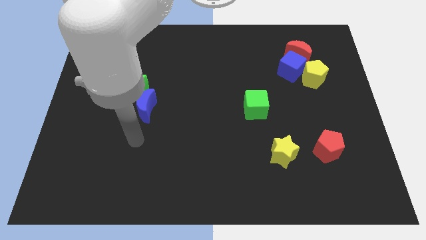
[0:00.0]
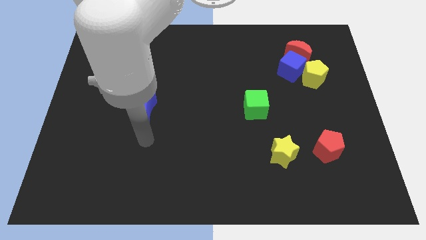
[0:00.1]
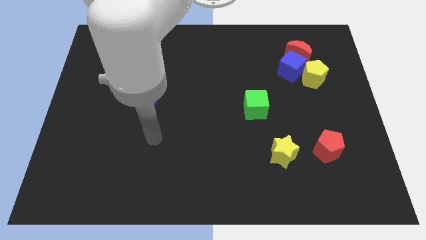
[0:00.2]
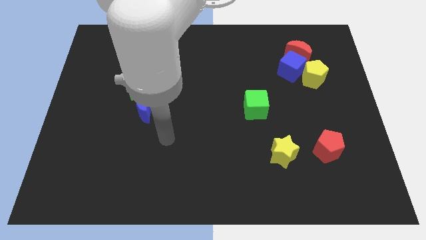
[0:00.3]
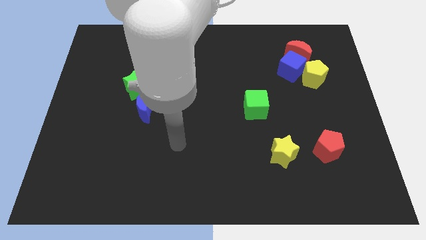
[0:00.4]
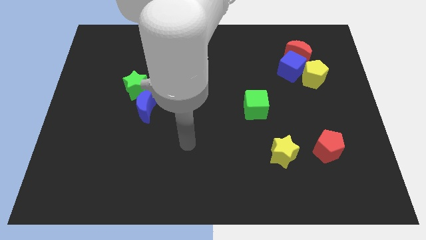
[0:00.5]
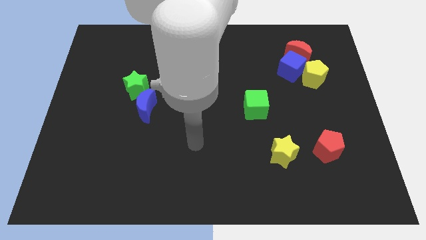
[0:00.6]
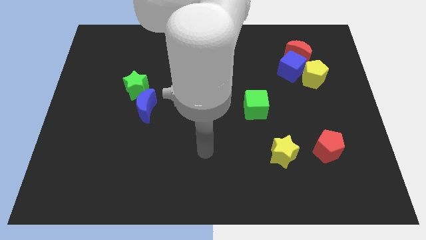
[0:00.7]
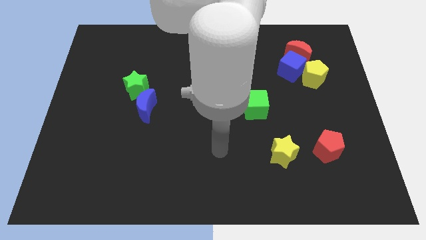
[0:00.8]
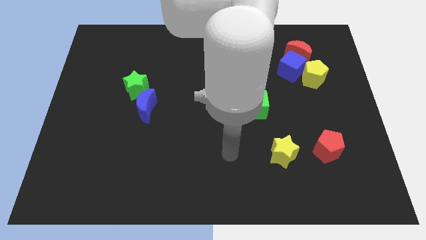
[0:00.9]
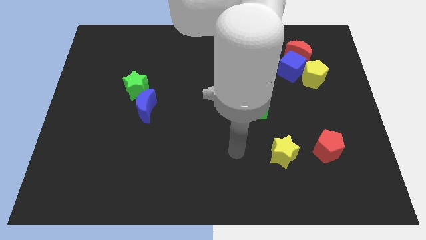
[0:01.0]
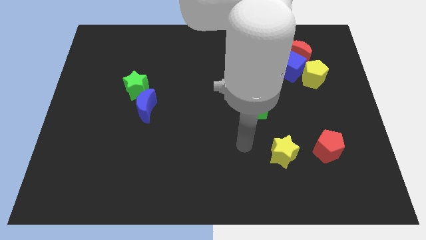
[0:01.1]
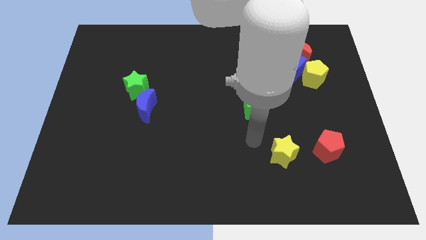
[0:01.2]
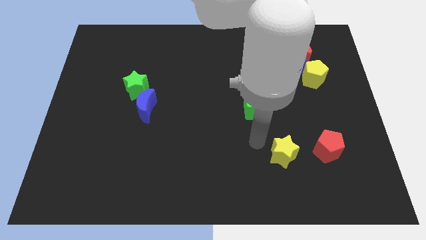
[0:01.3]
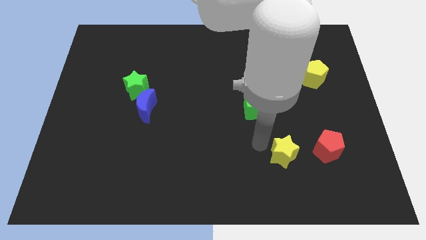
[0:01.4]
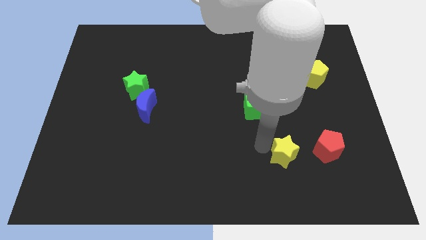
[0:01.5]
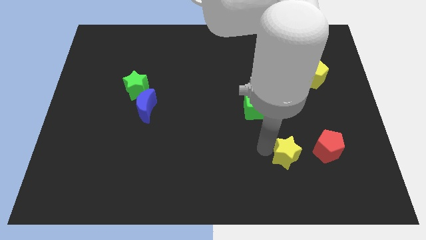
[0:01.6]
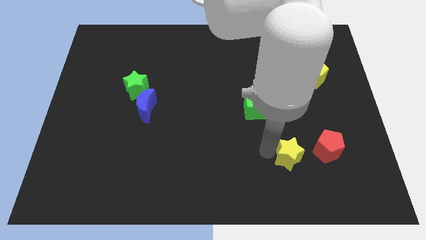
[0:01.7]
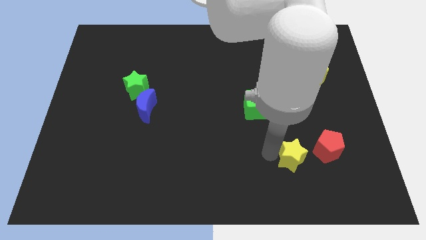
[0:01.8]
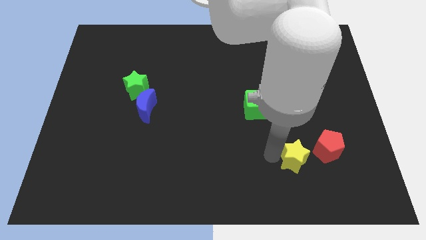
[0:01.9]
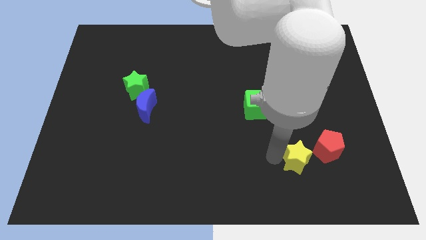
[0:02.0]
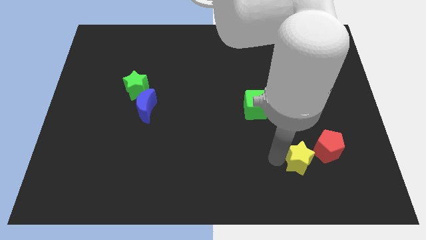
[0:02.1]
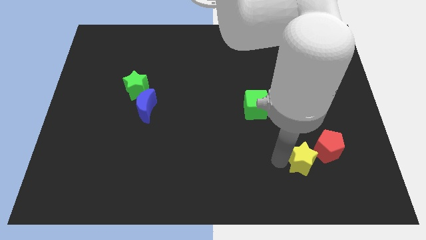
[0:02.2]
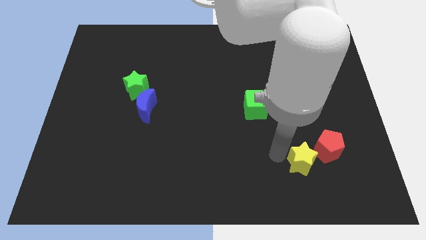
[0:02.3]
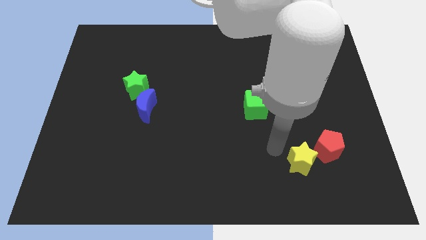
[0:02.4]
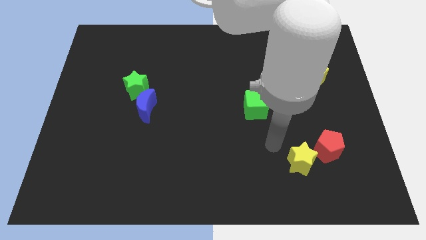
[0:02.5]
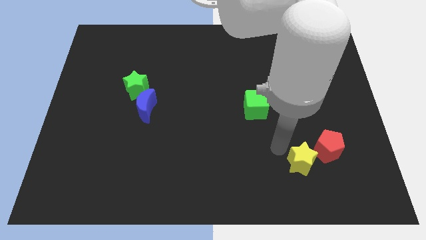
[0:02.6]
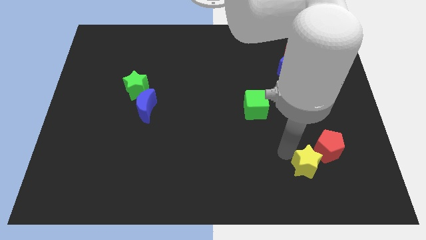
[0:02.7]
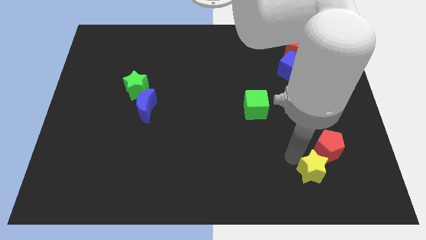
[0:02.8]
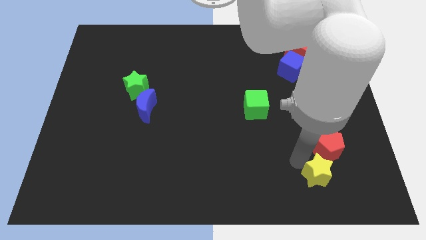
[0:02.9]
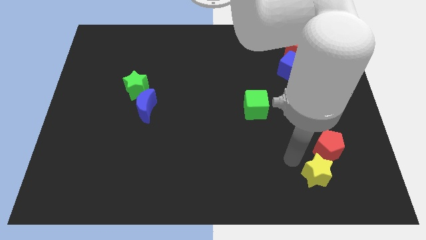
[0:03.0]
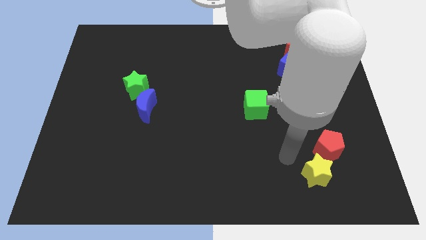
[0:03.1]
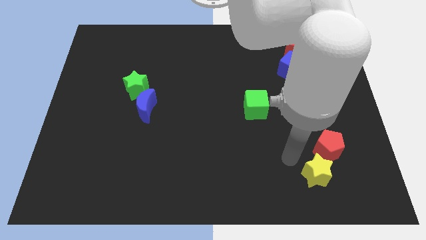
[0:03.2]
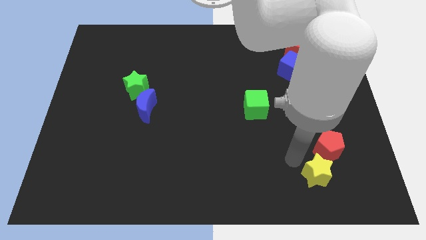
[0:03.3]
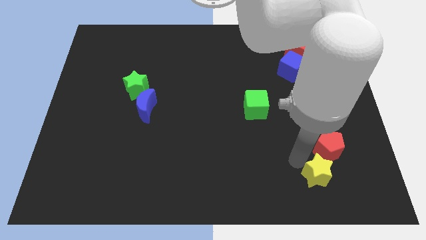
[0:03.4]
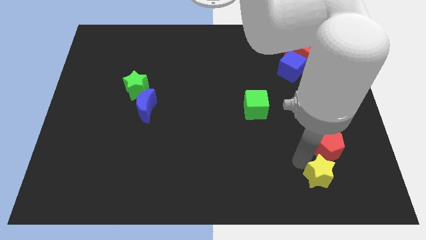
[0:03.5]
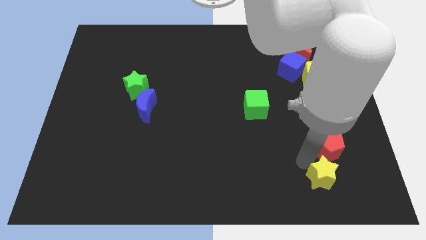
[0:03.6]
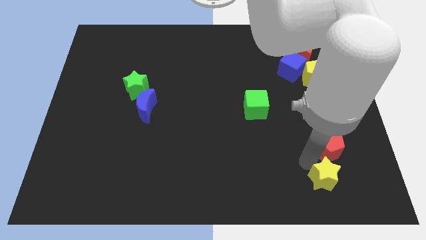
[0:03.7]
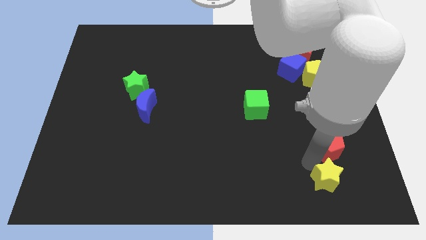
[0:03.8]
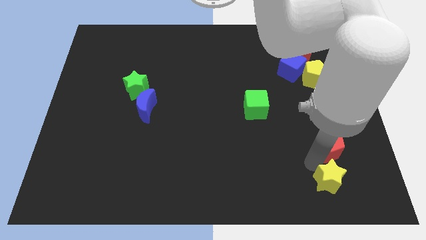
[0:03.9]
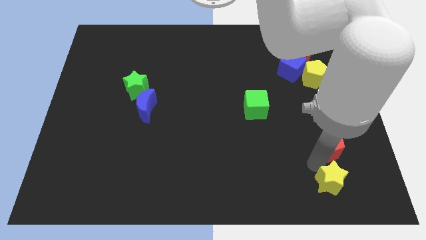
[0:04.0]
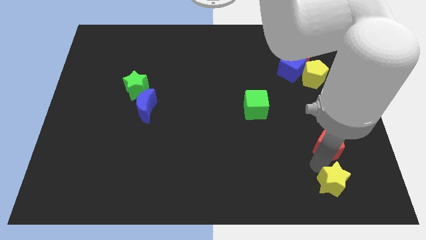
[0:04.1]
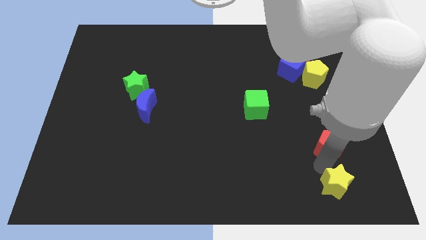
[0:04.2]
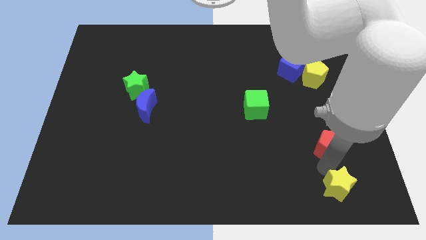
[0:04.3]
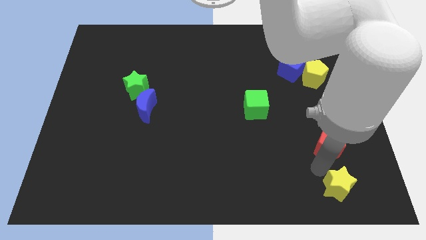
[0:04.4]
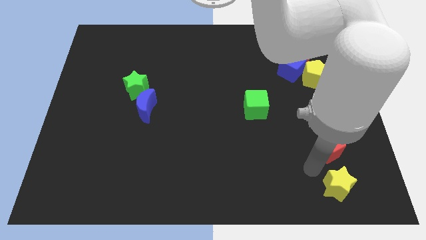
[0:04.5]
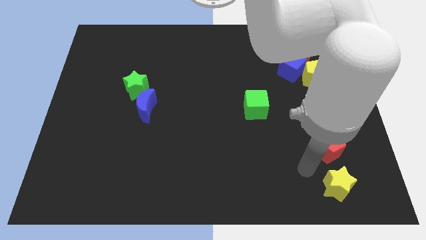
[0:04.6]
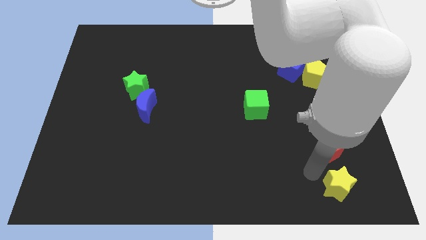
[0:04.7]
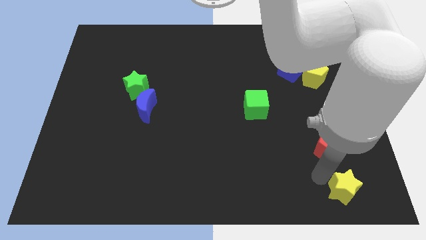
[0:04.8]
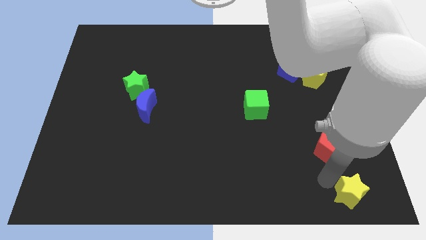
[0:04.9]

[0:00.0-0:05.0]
push the yellow star to the bottom right corner

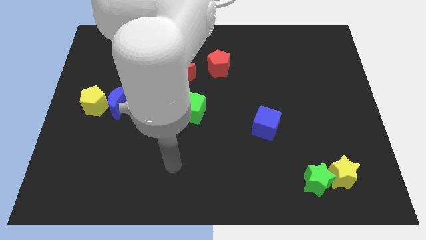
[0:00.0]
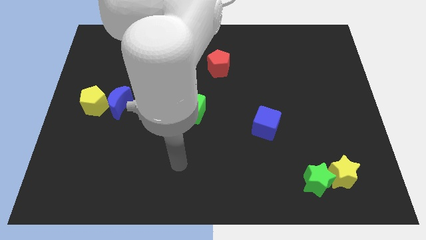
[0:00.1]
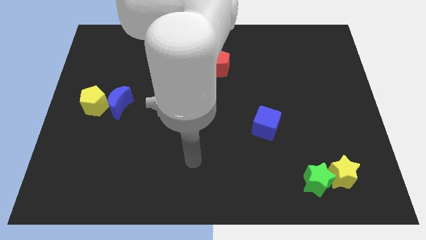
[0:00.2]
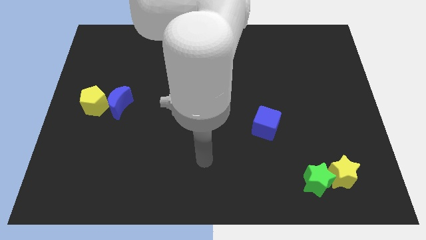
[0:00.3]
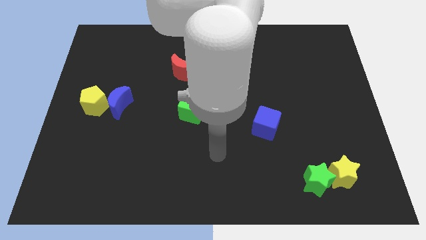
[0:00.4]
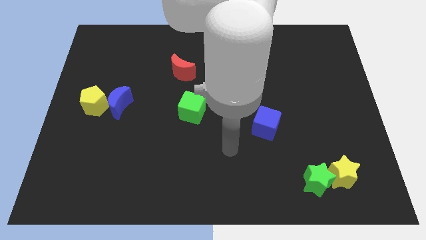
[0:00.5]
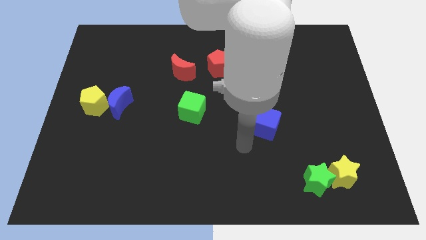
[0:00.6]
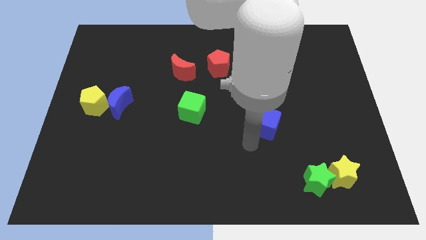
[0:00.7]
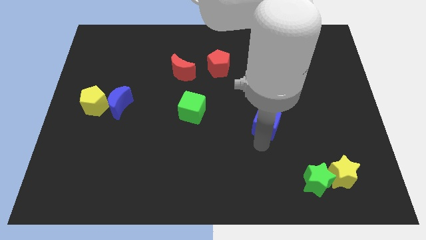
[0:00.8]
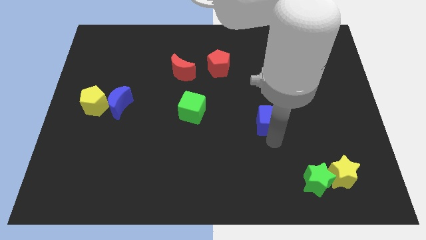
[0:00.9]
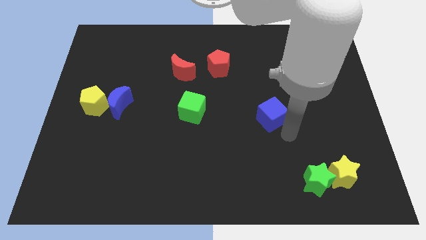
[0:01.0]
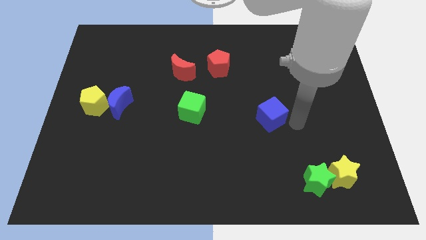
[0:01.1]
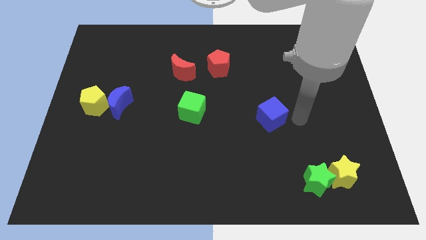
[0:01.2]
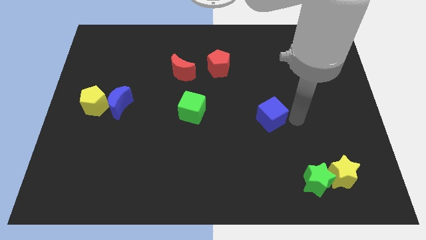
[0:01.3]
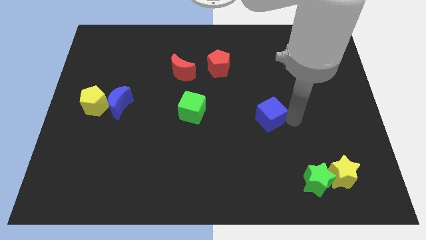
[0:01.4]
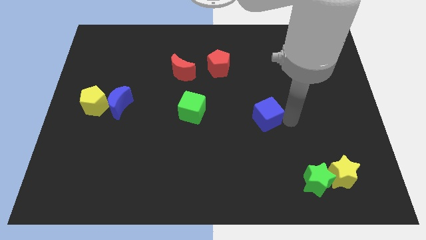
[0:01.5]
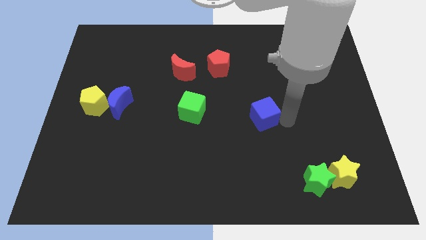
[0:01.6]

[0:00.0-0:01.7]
push the blue cube to the middle
